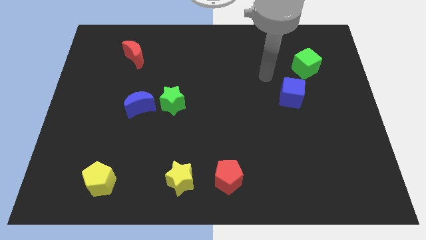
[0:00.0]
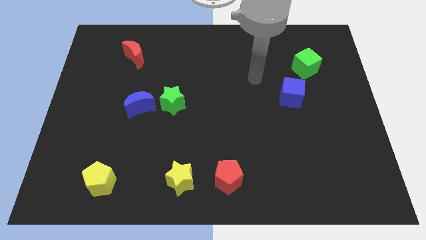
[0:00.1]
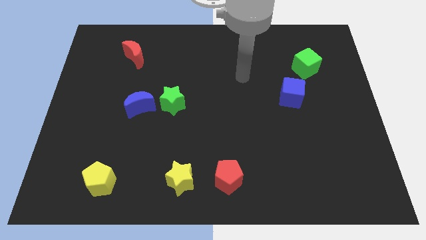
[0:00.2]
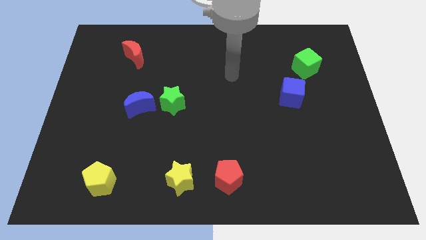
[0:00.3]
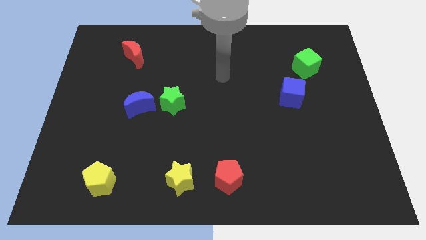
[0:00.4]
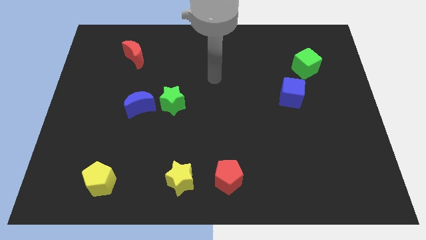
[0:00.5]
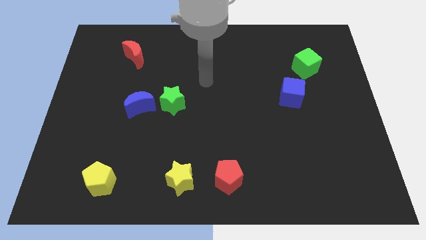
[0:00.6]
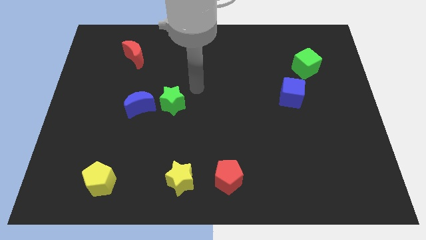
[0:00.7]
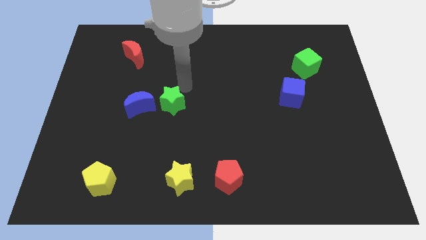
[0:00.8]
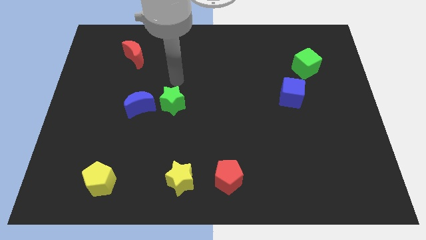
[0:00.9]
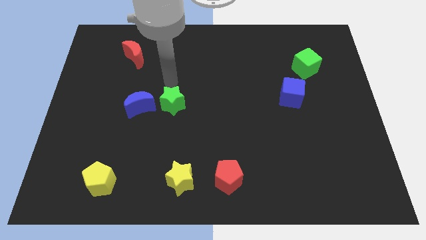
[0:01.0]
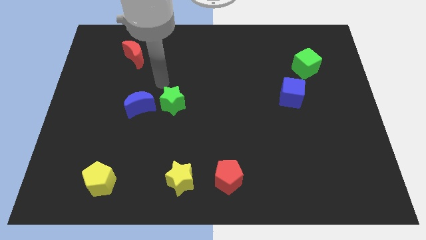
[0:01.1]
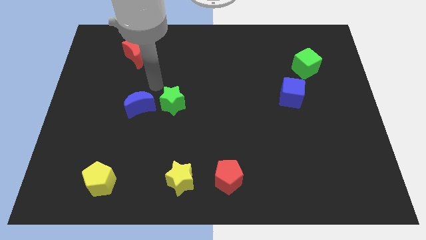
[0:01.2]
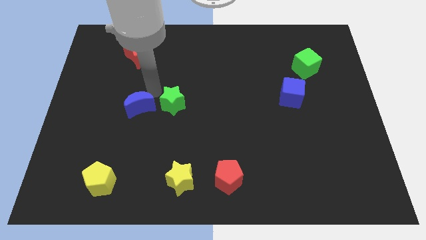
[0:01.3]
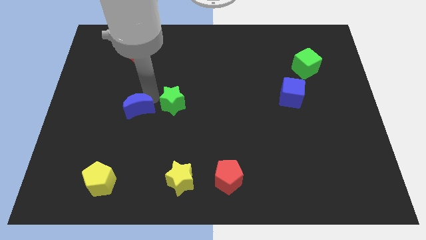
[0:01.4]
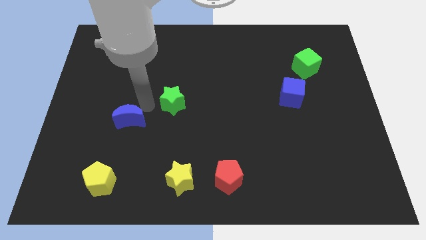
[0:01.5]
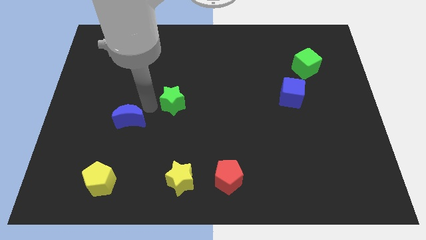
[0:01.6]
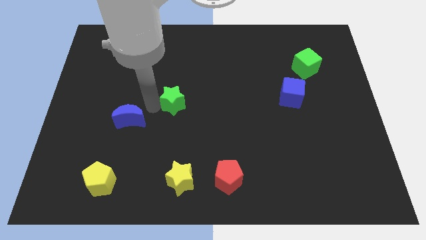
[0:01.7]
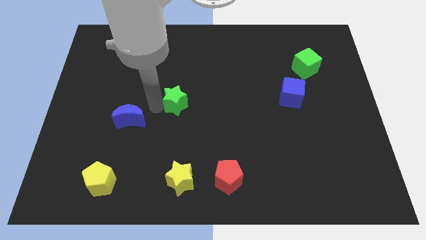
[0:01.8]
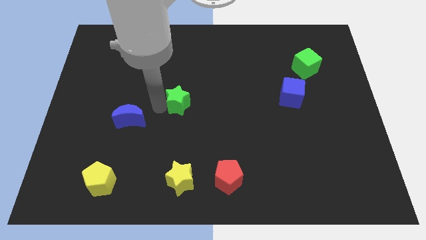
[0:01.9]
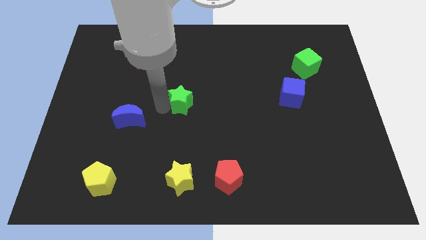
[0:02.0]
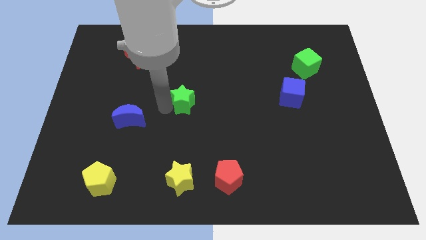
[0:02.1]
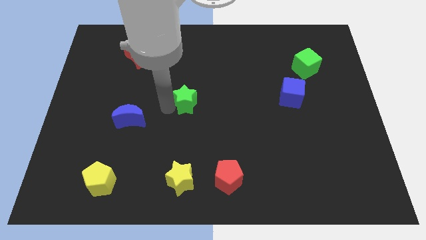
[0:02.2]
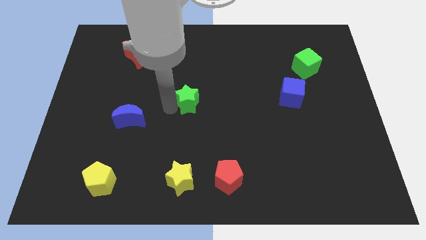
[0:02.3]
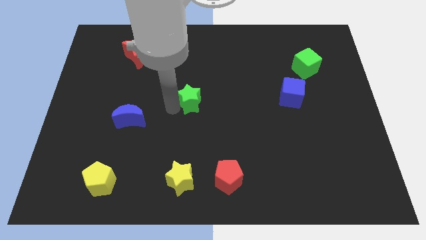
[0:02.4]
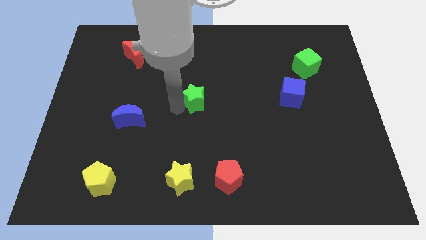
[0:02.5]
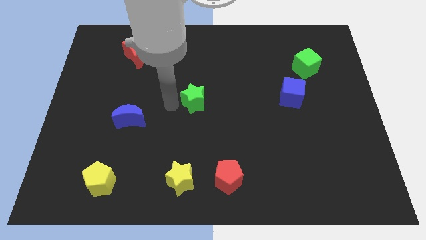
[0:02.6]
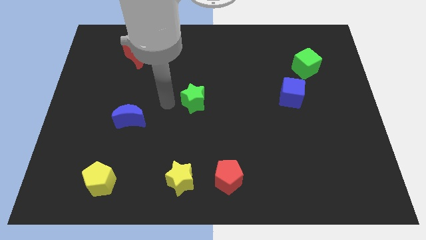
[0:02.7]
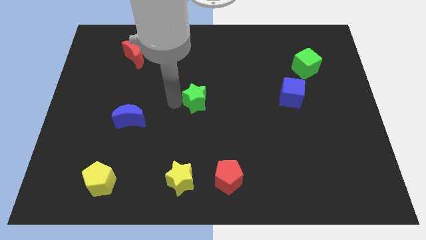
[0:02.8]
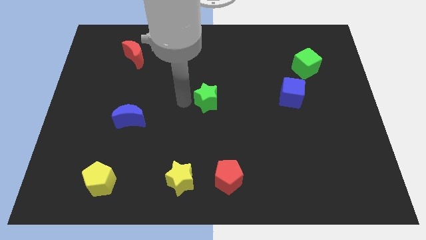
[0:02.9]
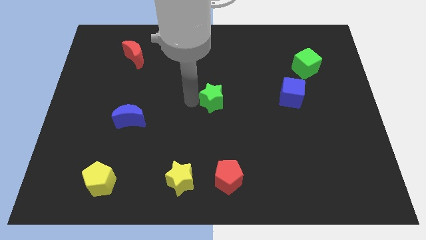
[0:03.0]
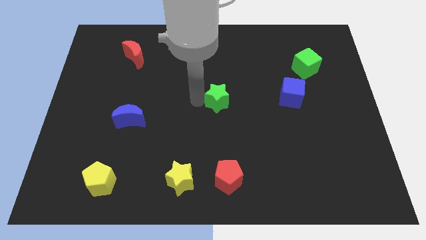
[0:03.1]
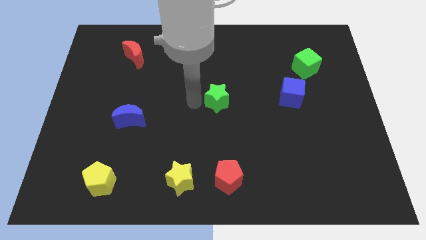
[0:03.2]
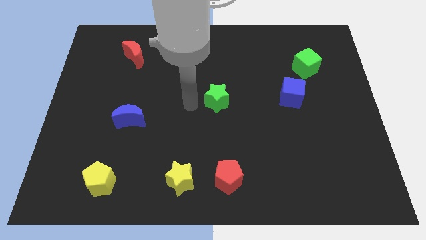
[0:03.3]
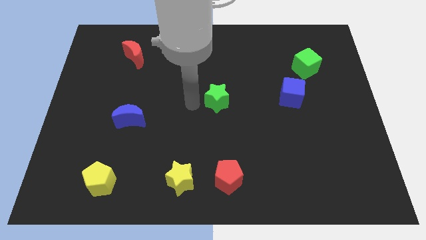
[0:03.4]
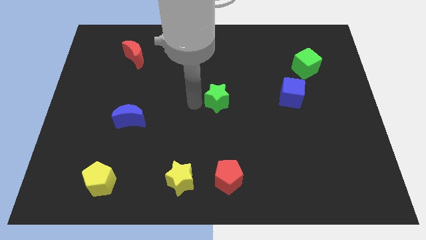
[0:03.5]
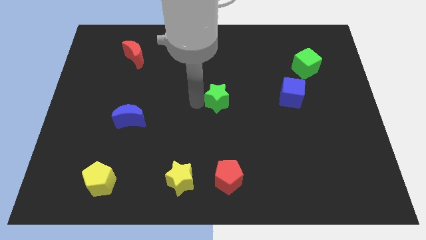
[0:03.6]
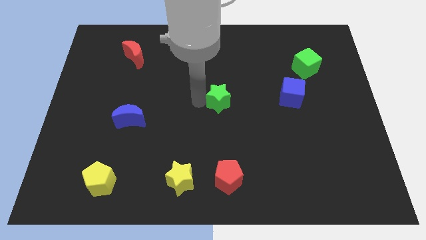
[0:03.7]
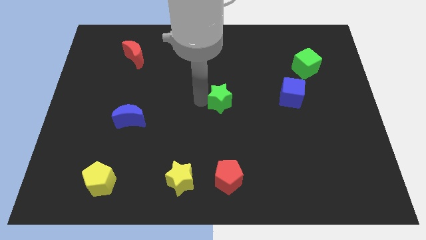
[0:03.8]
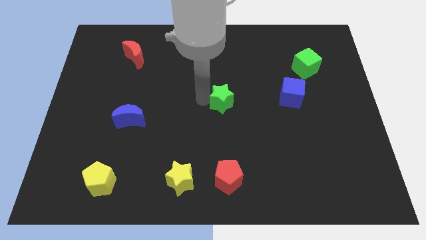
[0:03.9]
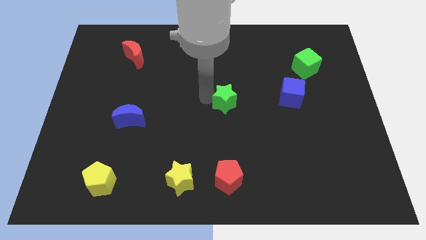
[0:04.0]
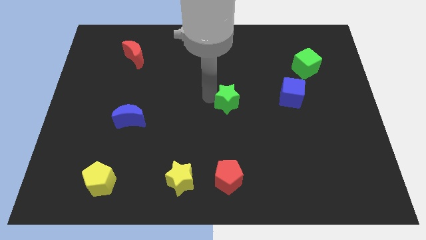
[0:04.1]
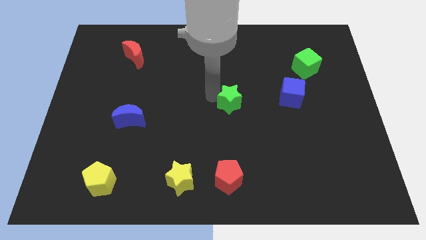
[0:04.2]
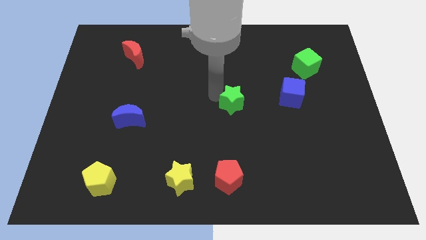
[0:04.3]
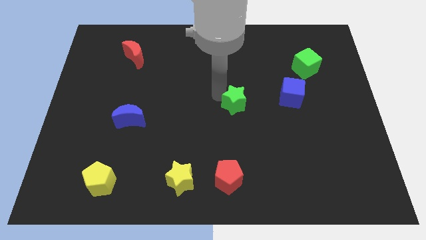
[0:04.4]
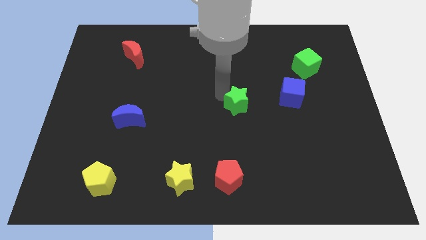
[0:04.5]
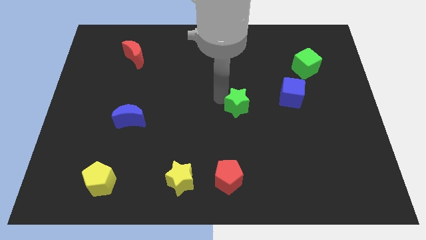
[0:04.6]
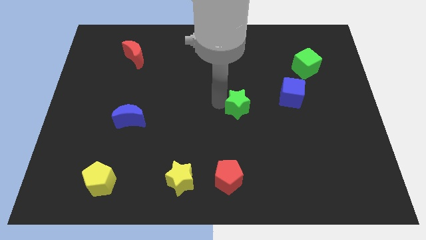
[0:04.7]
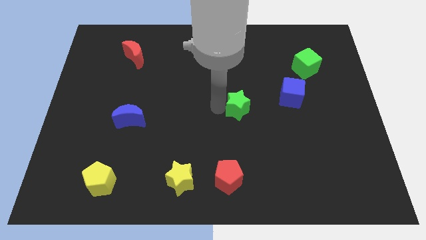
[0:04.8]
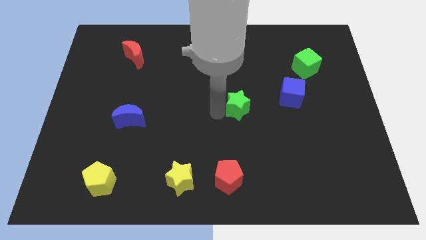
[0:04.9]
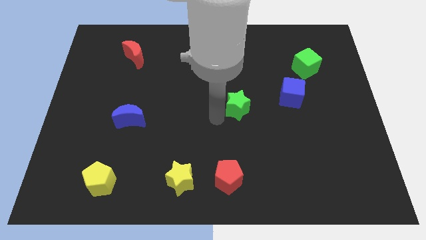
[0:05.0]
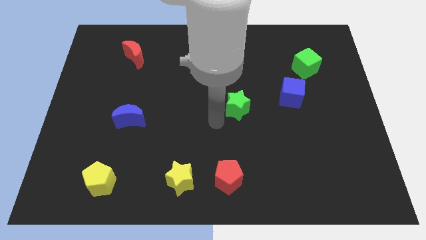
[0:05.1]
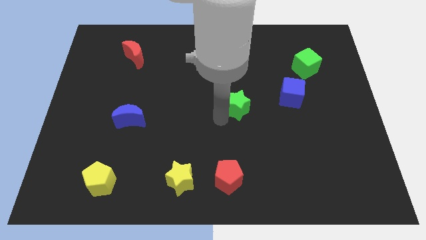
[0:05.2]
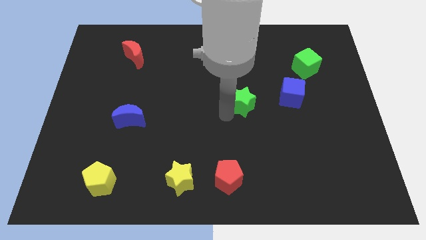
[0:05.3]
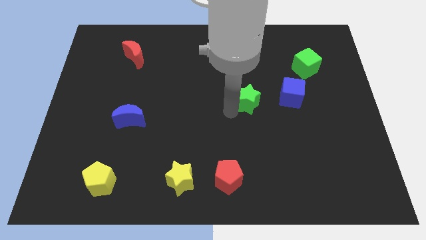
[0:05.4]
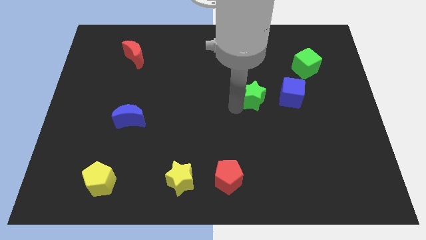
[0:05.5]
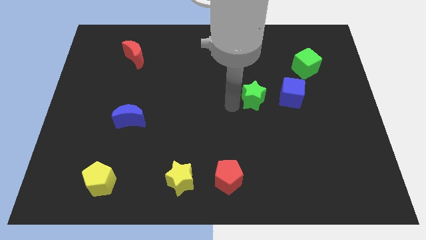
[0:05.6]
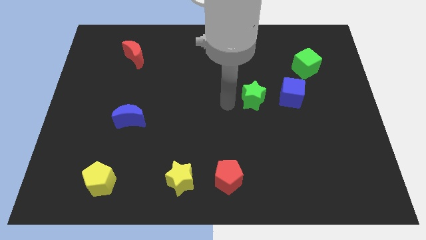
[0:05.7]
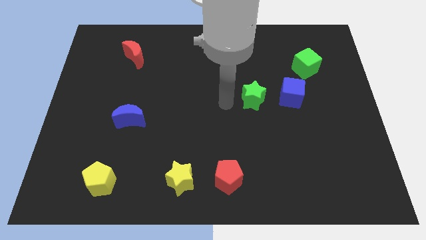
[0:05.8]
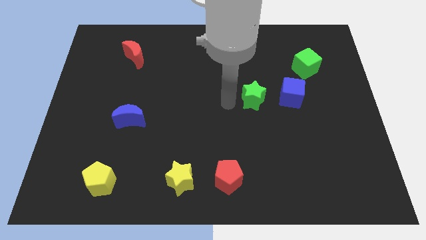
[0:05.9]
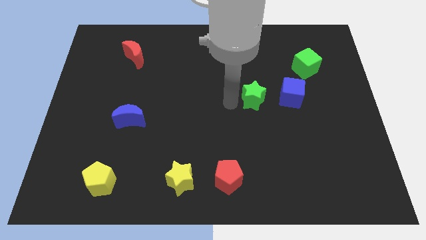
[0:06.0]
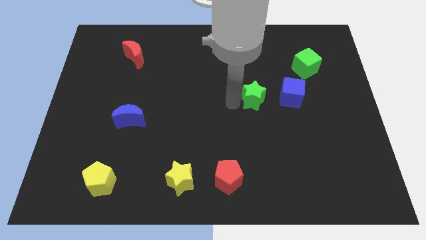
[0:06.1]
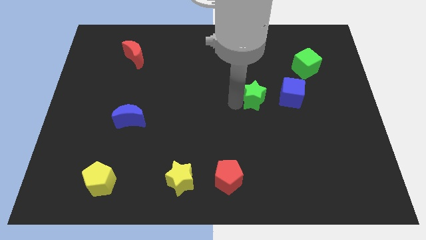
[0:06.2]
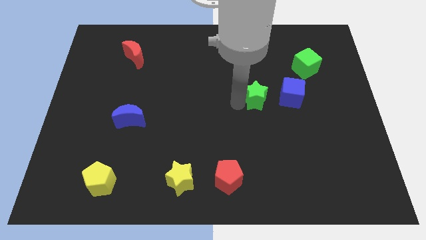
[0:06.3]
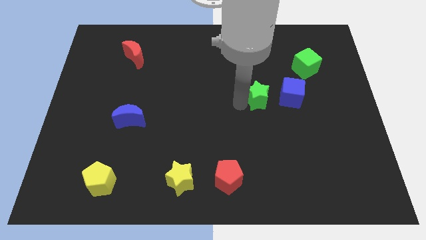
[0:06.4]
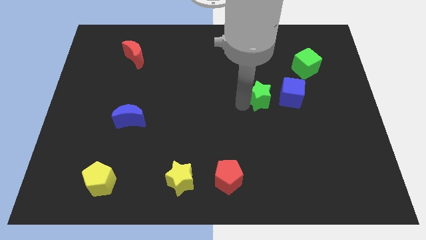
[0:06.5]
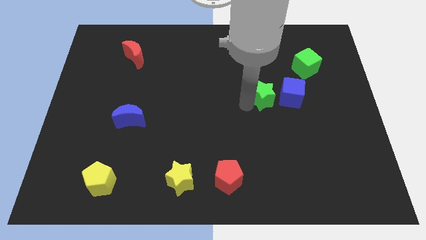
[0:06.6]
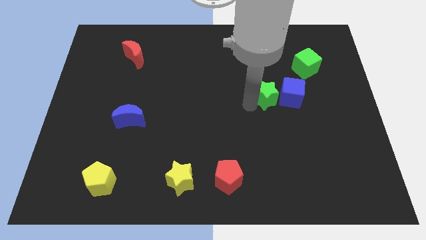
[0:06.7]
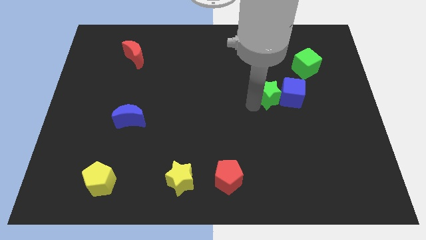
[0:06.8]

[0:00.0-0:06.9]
slide the green star close to the blue cube
